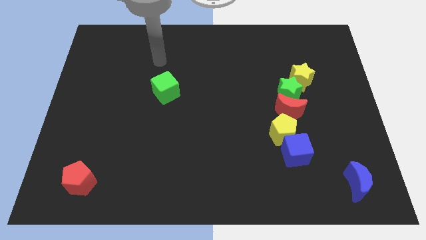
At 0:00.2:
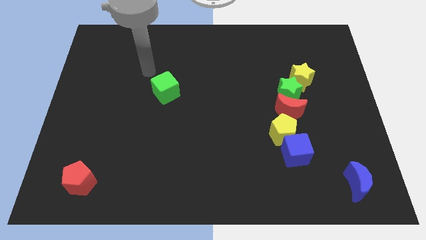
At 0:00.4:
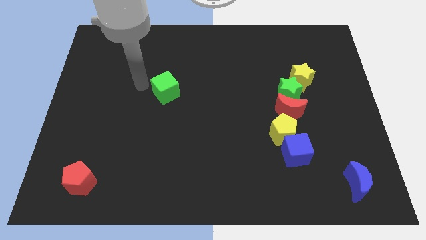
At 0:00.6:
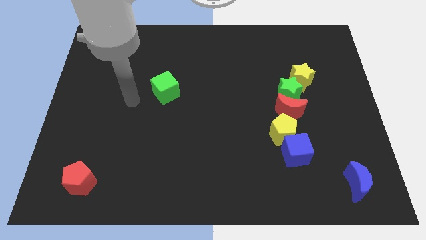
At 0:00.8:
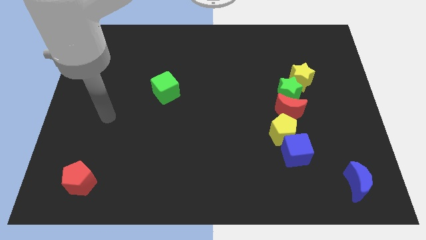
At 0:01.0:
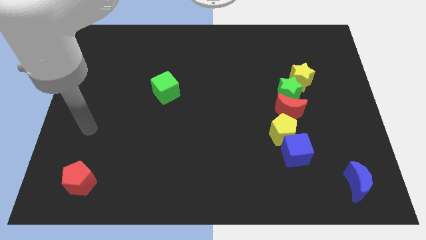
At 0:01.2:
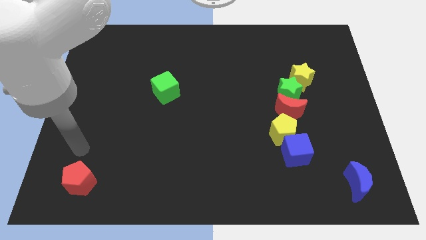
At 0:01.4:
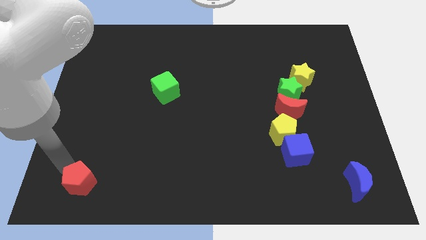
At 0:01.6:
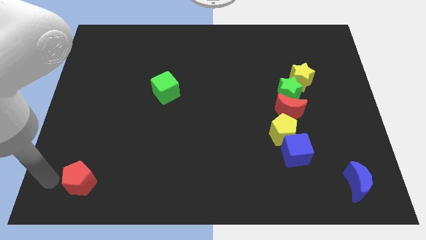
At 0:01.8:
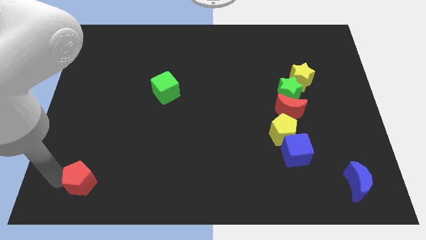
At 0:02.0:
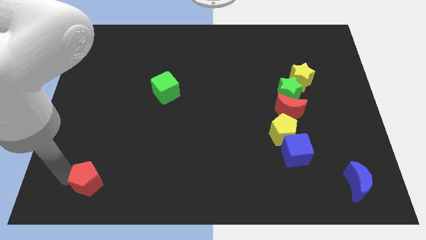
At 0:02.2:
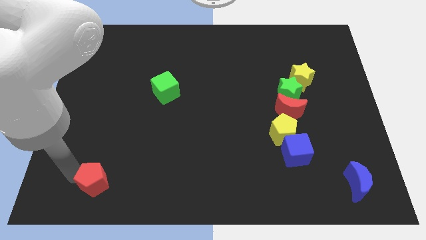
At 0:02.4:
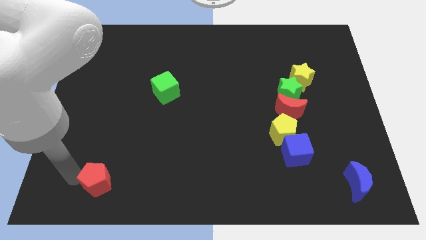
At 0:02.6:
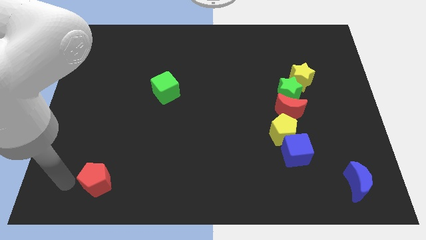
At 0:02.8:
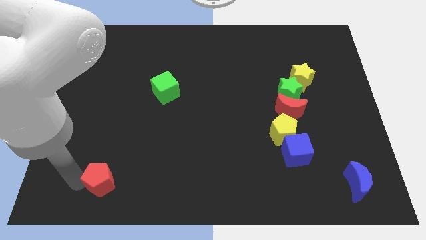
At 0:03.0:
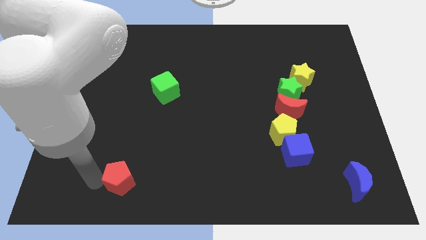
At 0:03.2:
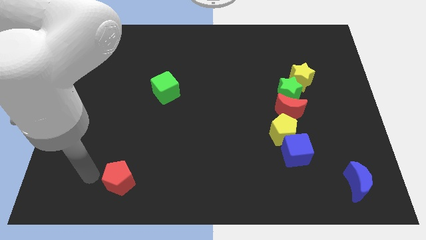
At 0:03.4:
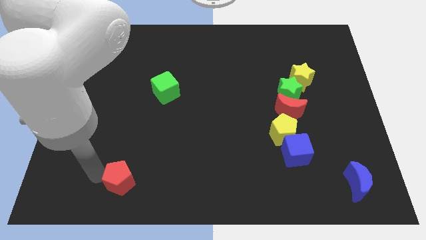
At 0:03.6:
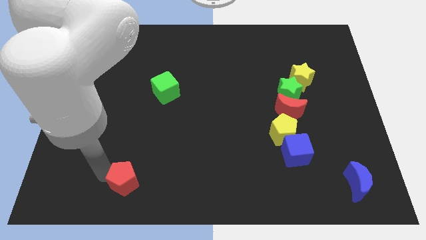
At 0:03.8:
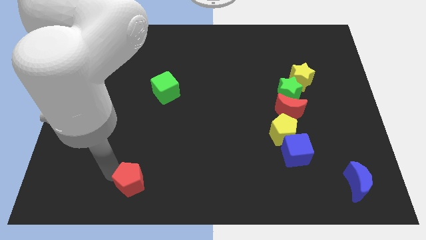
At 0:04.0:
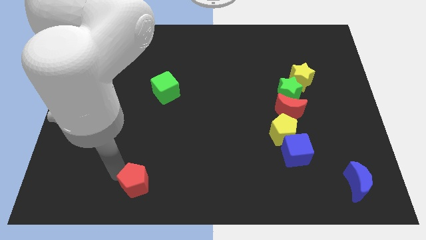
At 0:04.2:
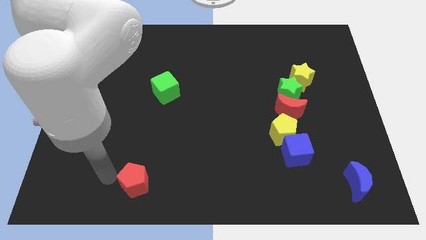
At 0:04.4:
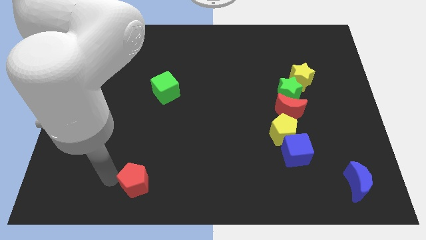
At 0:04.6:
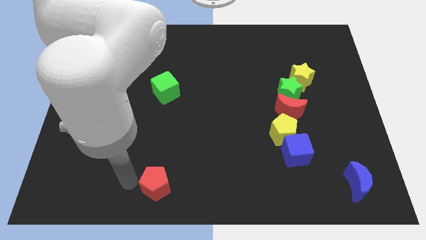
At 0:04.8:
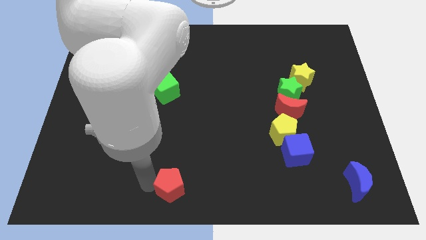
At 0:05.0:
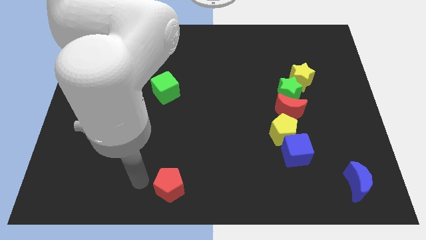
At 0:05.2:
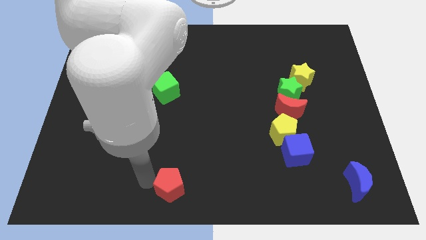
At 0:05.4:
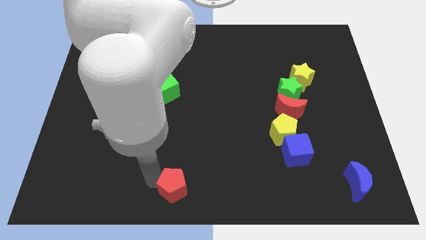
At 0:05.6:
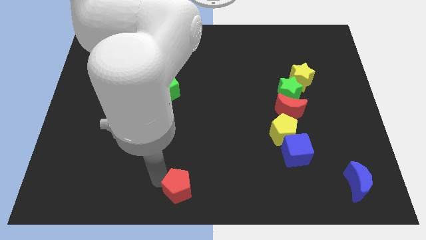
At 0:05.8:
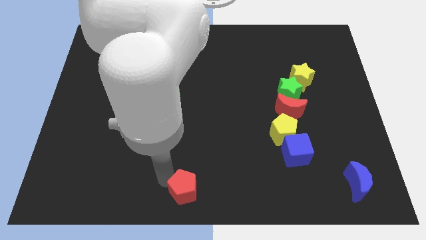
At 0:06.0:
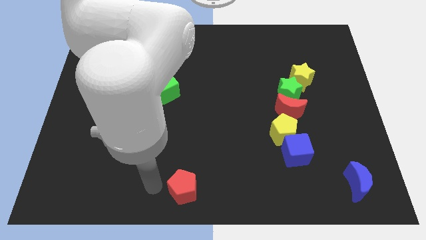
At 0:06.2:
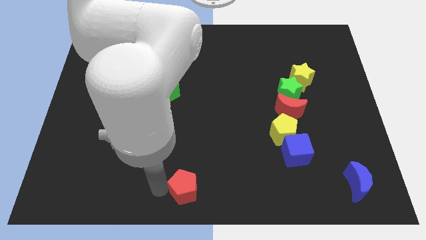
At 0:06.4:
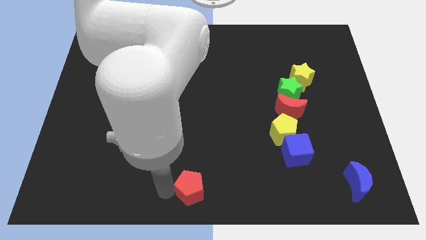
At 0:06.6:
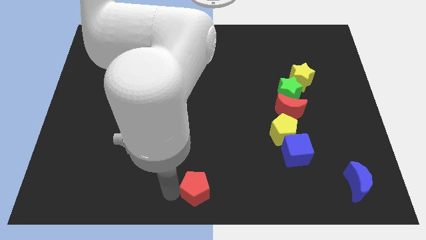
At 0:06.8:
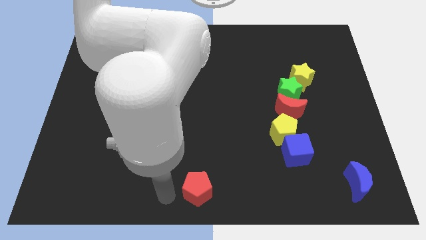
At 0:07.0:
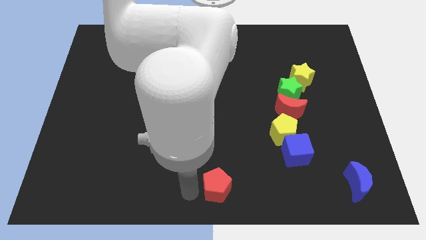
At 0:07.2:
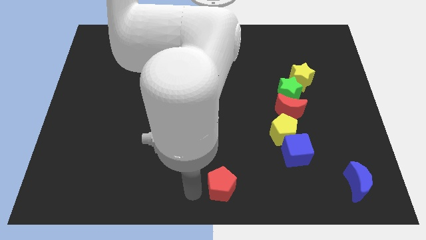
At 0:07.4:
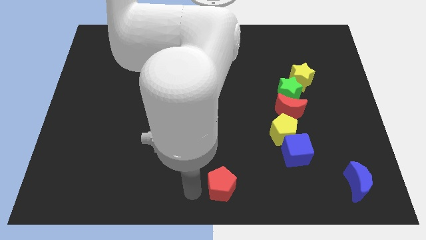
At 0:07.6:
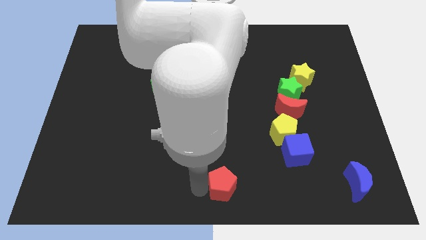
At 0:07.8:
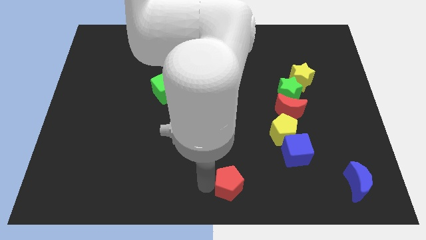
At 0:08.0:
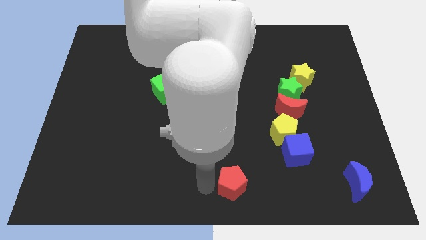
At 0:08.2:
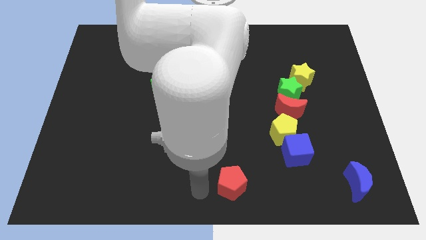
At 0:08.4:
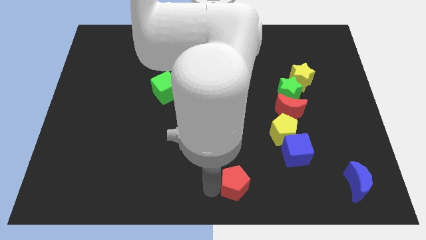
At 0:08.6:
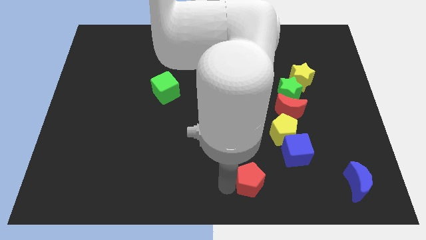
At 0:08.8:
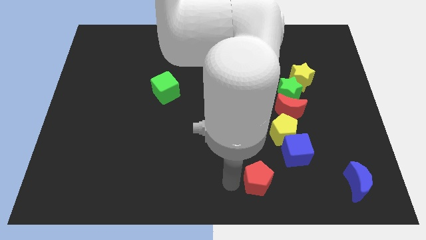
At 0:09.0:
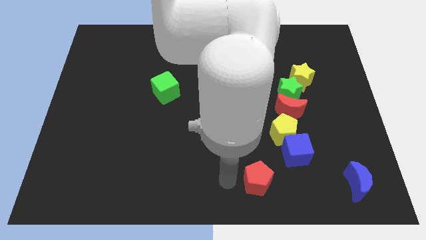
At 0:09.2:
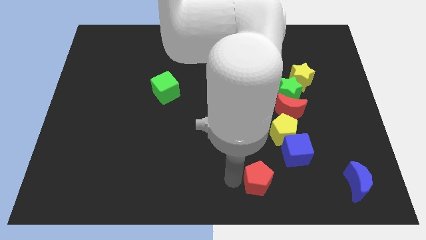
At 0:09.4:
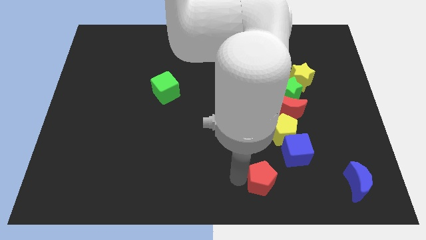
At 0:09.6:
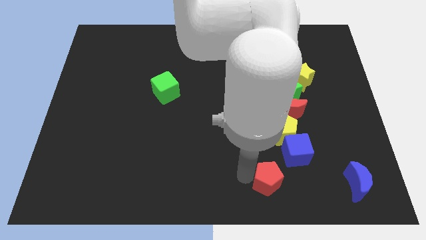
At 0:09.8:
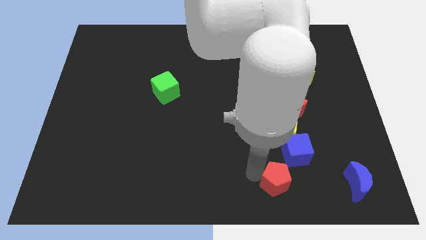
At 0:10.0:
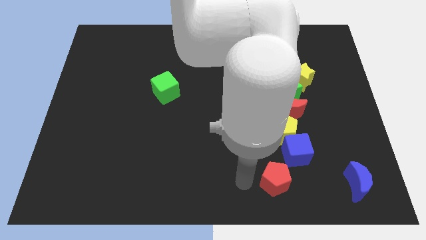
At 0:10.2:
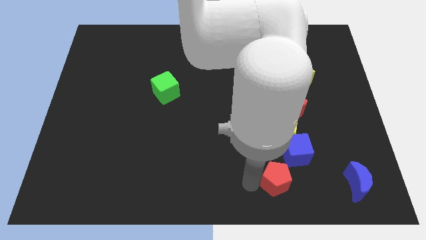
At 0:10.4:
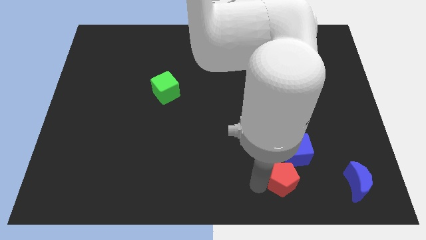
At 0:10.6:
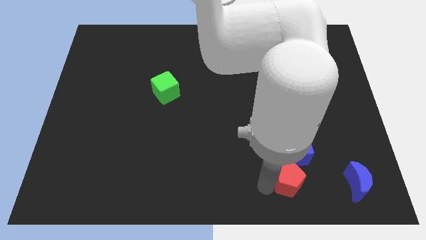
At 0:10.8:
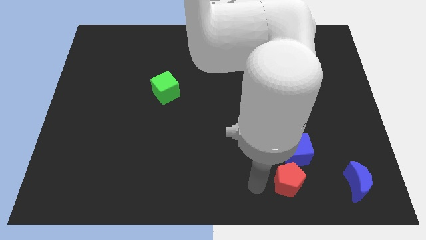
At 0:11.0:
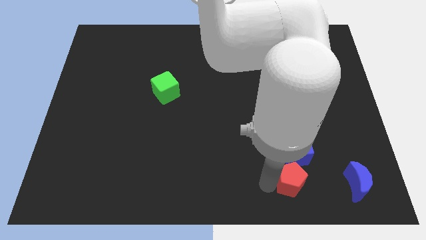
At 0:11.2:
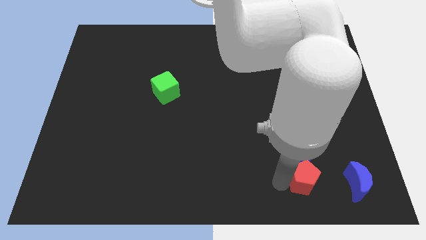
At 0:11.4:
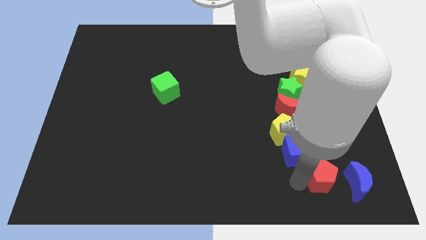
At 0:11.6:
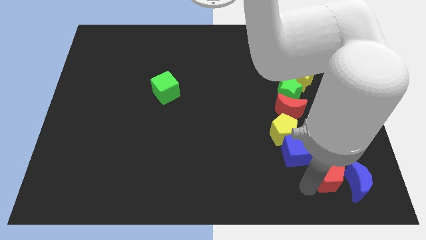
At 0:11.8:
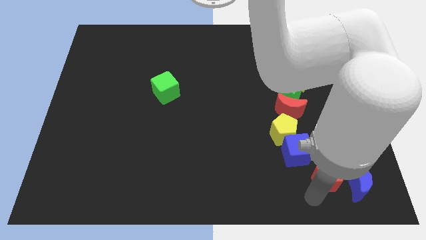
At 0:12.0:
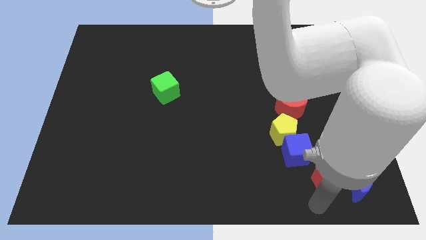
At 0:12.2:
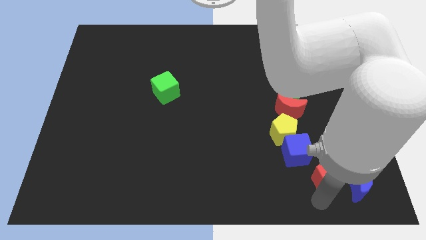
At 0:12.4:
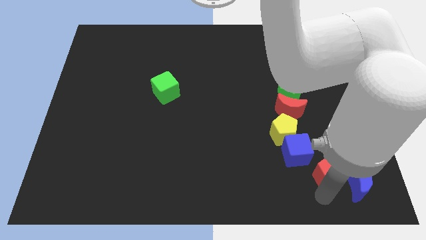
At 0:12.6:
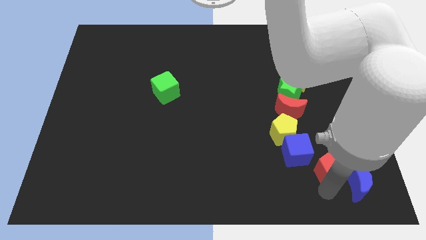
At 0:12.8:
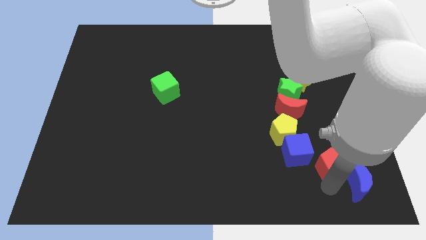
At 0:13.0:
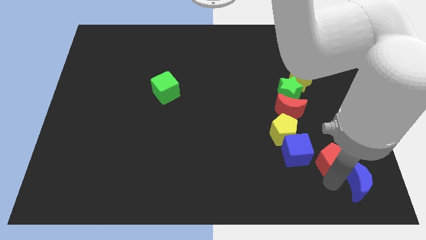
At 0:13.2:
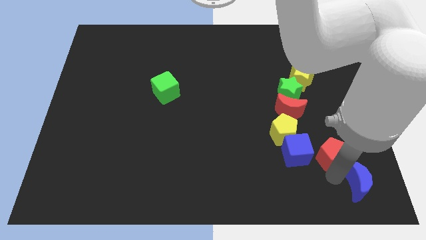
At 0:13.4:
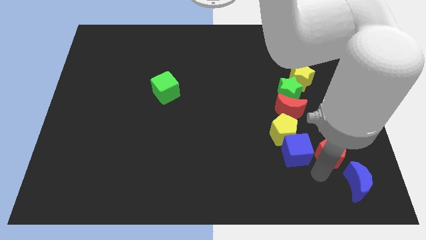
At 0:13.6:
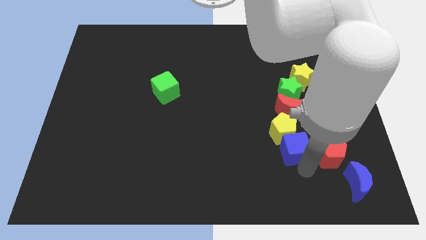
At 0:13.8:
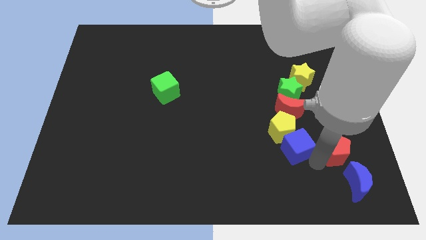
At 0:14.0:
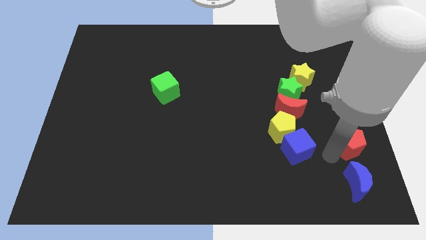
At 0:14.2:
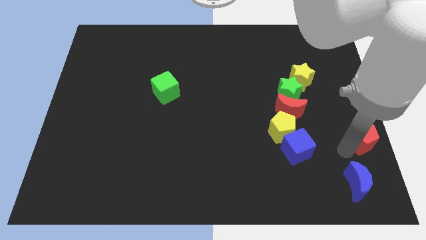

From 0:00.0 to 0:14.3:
slide the red pentagon to the right side of the board
